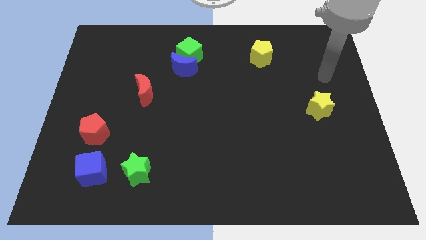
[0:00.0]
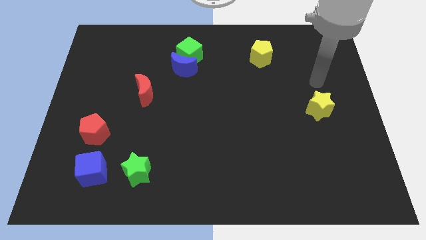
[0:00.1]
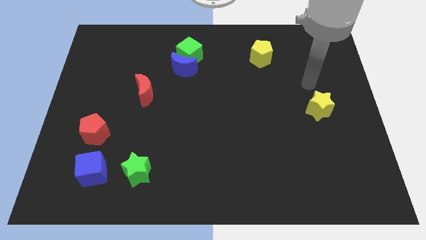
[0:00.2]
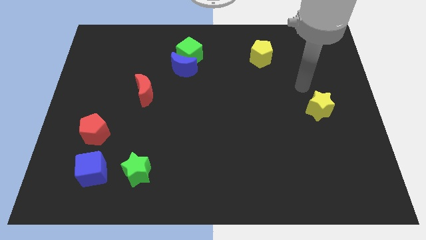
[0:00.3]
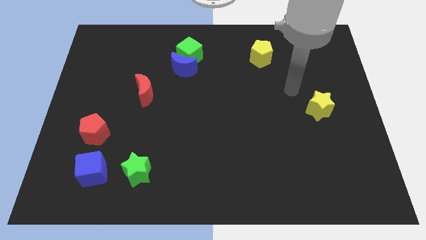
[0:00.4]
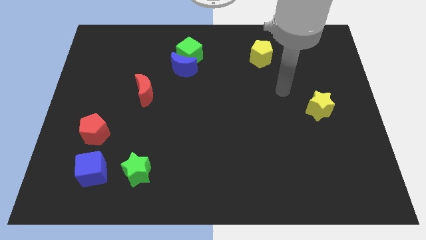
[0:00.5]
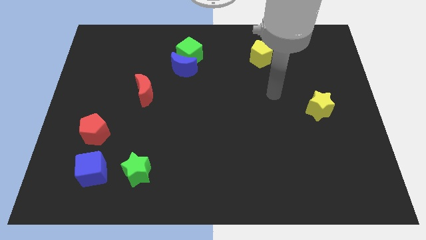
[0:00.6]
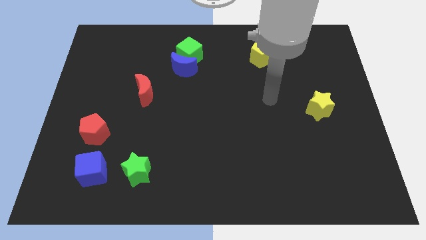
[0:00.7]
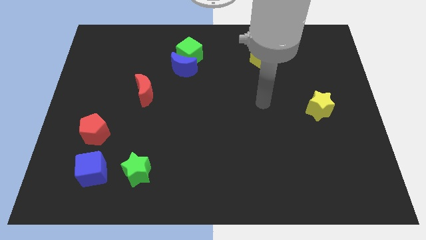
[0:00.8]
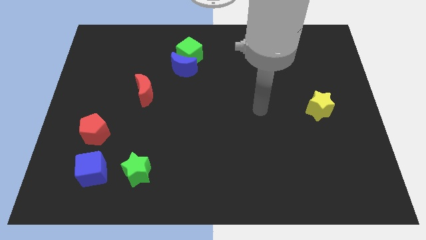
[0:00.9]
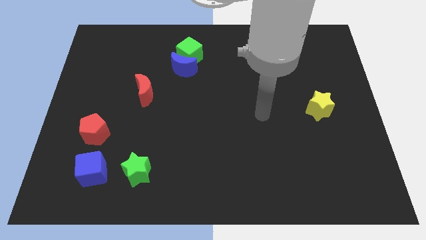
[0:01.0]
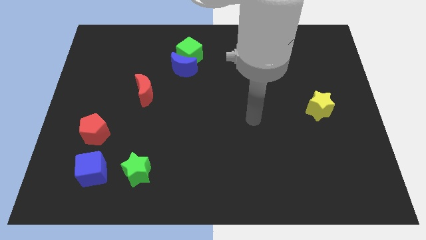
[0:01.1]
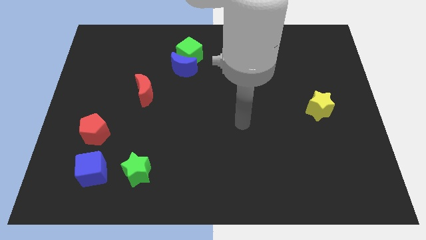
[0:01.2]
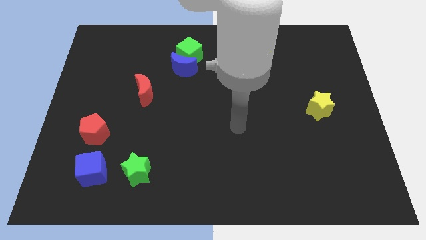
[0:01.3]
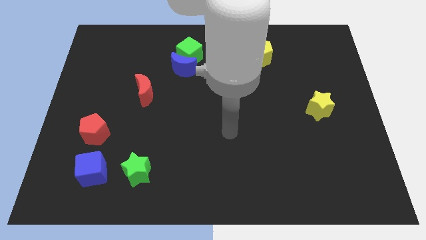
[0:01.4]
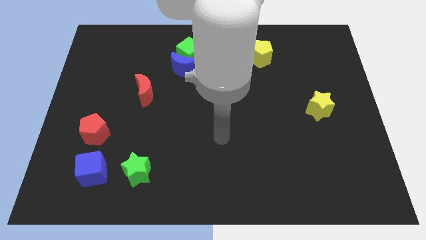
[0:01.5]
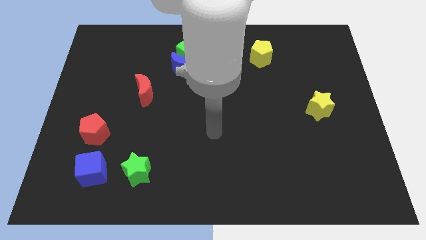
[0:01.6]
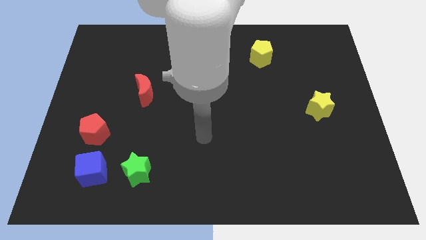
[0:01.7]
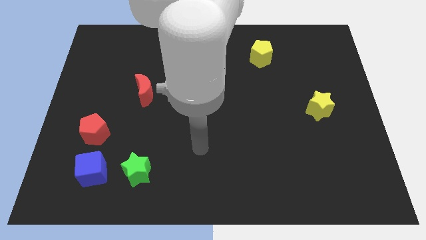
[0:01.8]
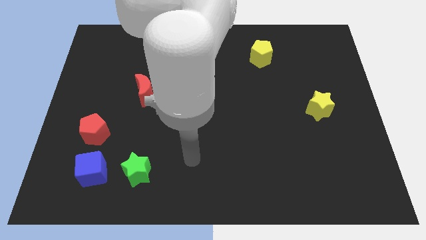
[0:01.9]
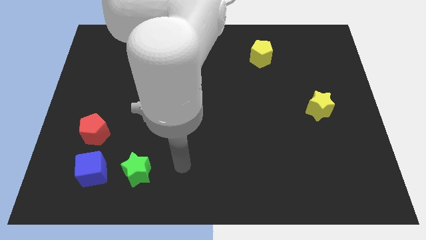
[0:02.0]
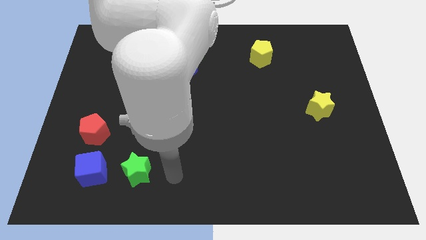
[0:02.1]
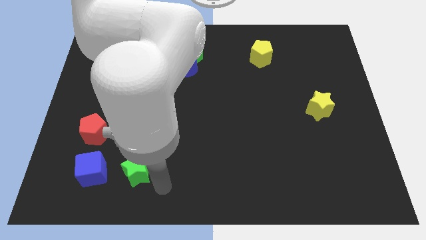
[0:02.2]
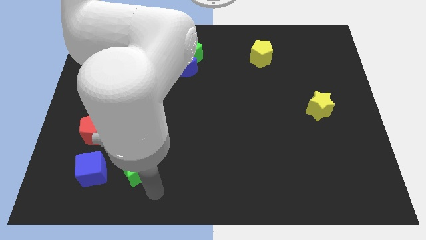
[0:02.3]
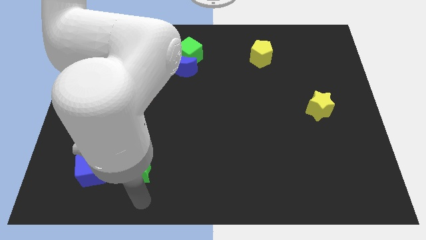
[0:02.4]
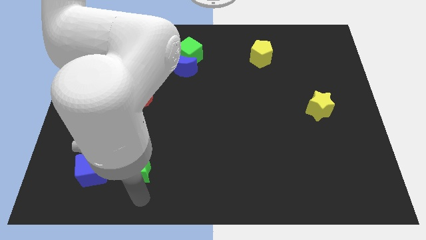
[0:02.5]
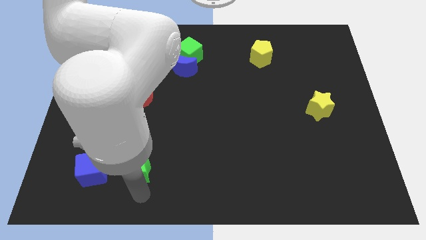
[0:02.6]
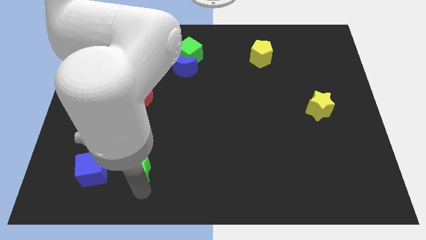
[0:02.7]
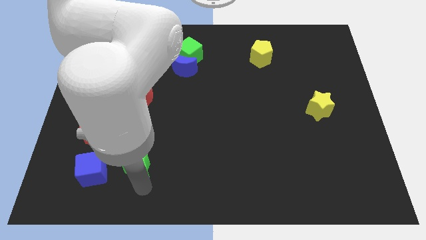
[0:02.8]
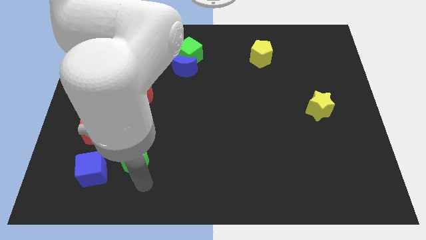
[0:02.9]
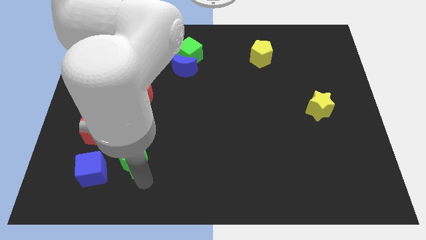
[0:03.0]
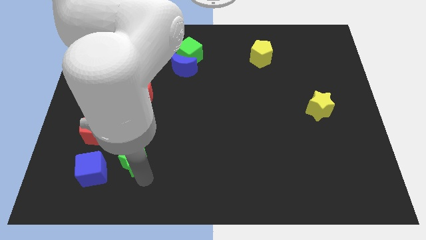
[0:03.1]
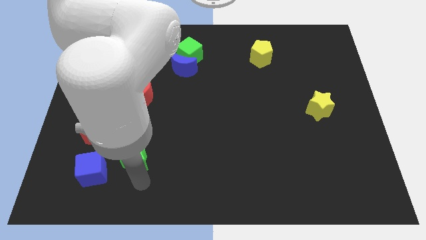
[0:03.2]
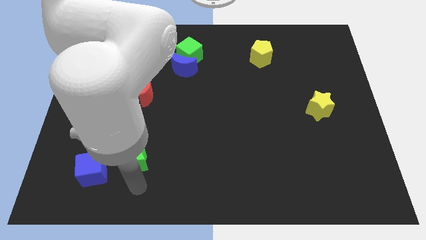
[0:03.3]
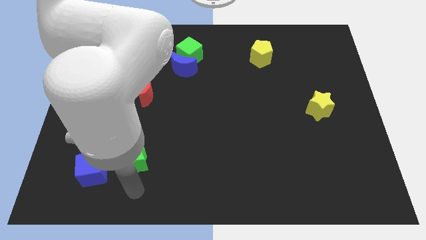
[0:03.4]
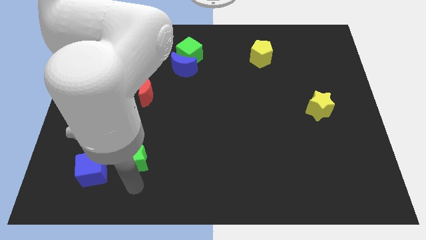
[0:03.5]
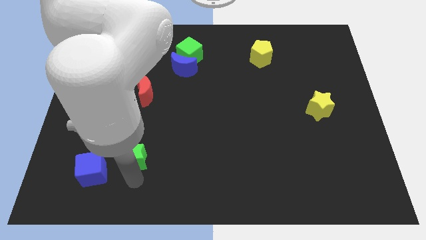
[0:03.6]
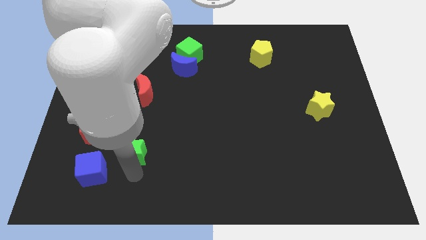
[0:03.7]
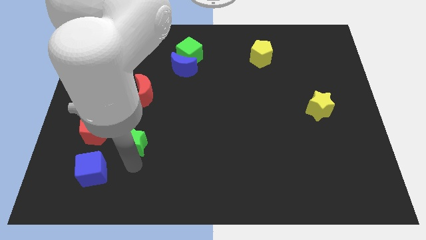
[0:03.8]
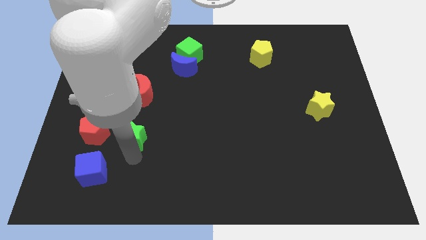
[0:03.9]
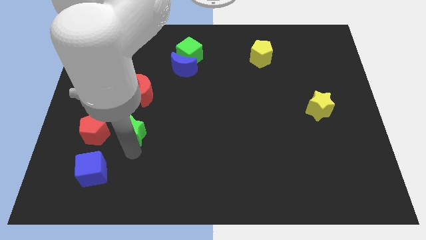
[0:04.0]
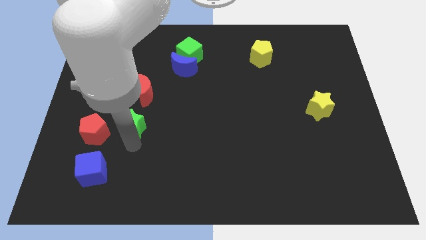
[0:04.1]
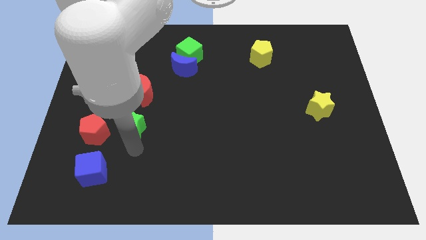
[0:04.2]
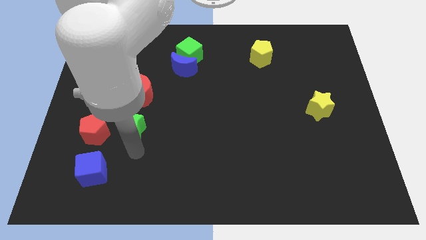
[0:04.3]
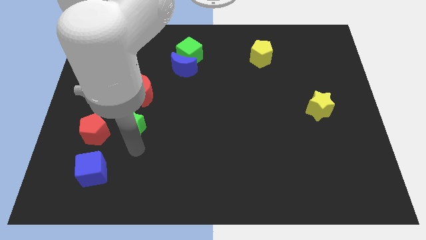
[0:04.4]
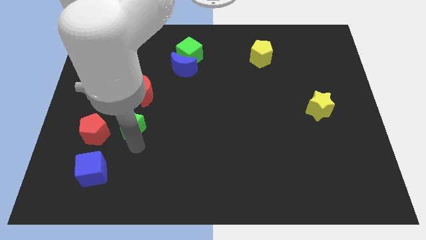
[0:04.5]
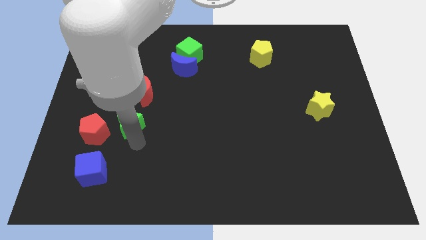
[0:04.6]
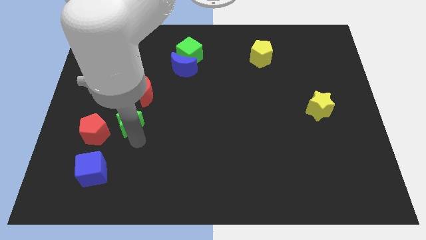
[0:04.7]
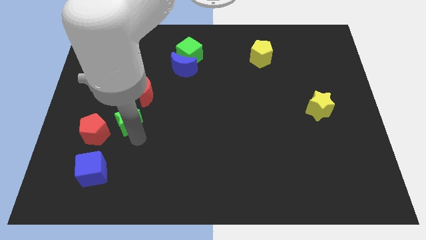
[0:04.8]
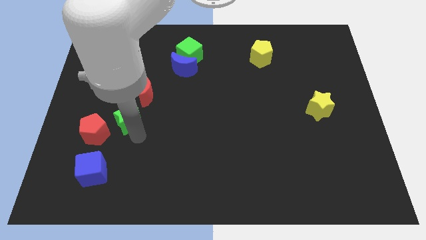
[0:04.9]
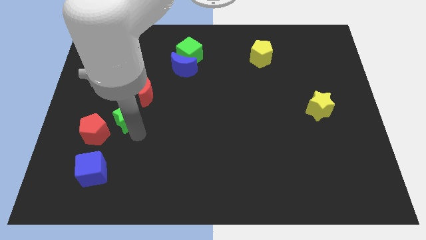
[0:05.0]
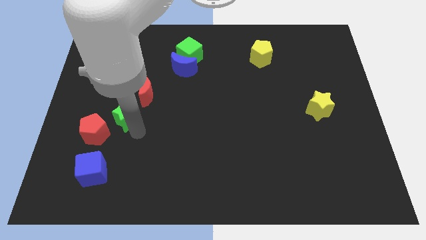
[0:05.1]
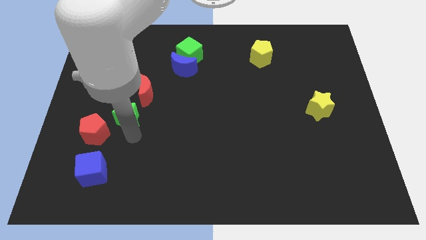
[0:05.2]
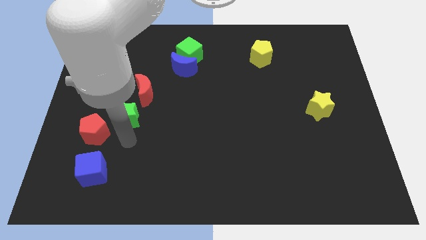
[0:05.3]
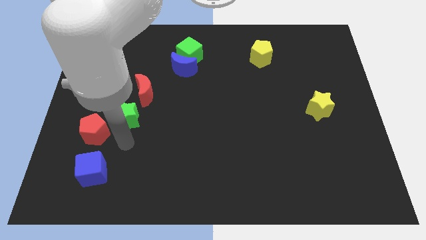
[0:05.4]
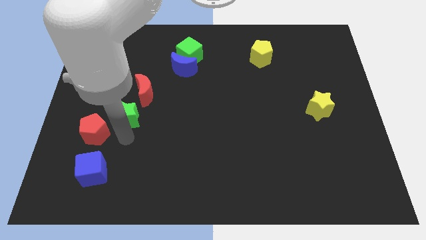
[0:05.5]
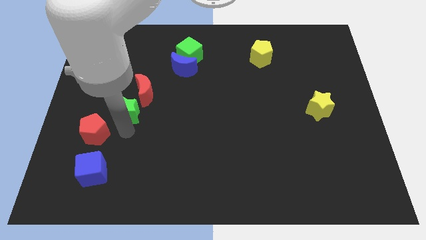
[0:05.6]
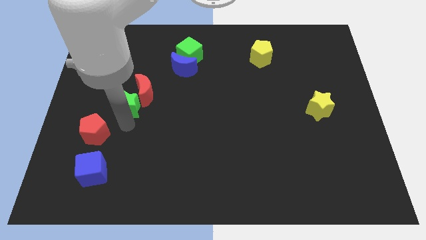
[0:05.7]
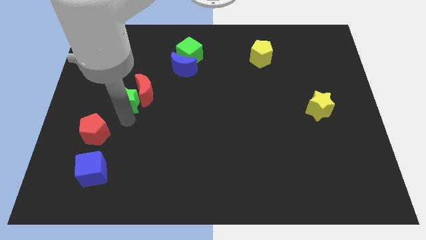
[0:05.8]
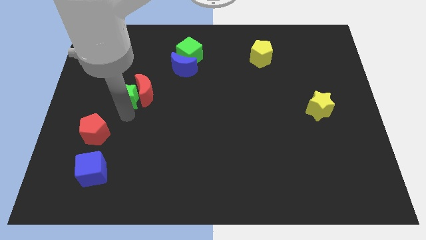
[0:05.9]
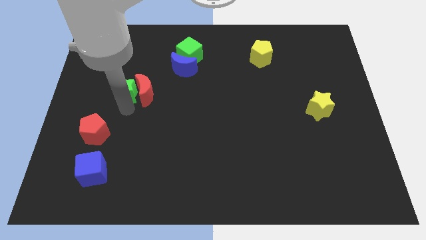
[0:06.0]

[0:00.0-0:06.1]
push the green star to the top left side of the red moon

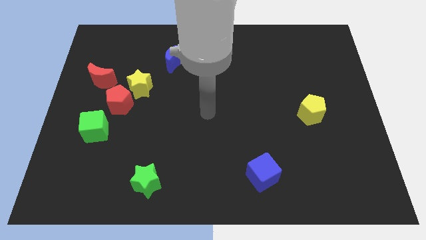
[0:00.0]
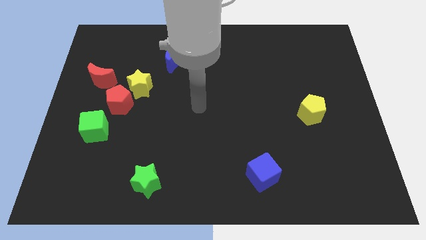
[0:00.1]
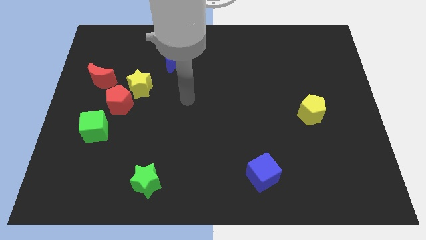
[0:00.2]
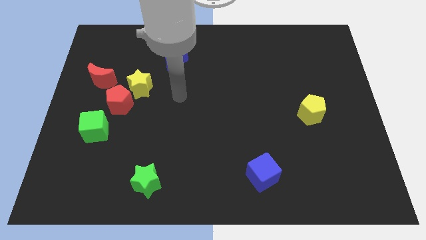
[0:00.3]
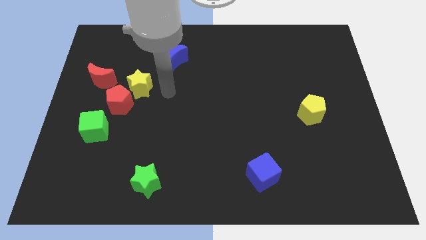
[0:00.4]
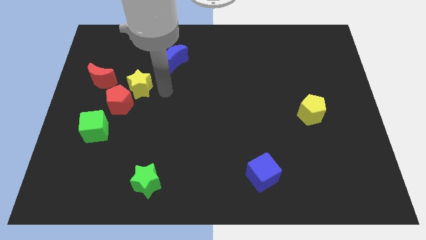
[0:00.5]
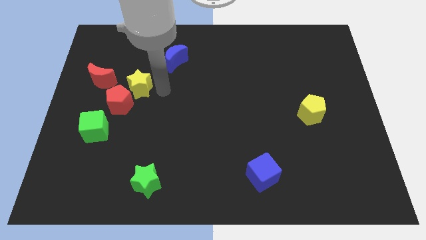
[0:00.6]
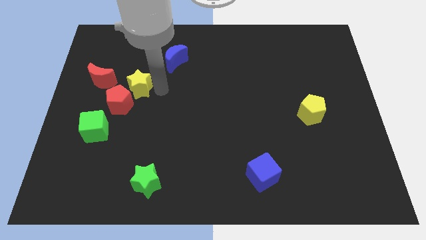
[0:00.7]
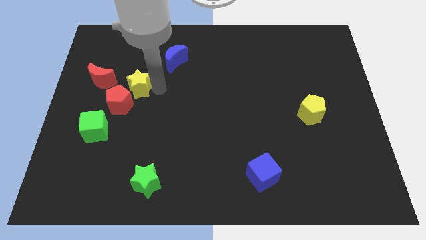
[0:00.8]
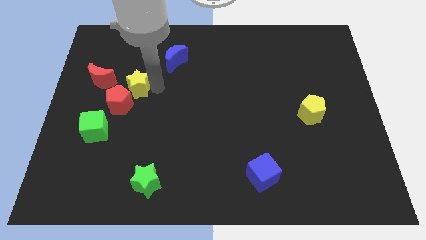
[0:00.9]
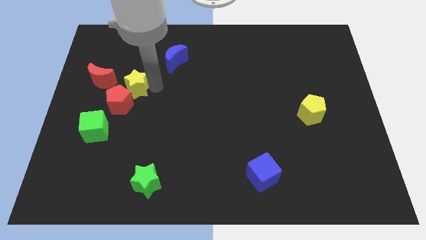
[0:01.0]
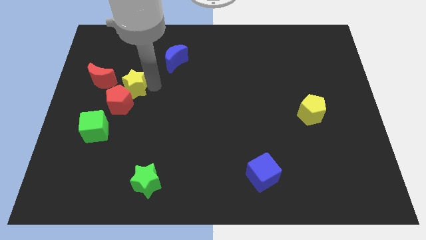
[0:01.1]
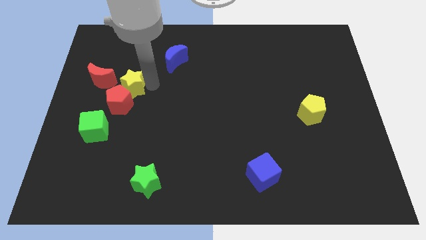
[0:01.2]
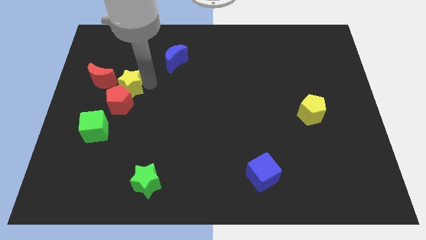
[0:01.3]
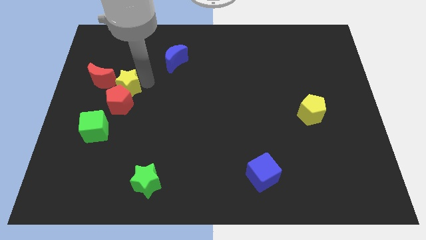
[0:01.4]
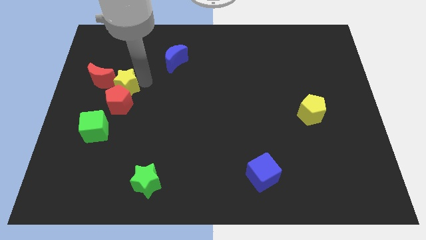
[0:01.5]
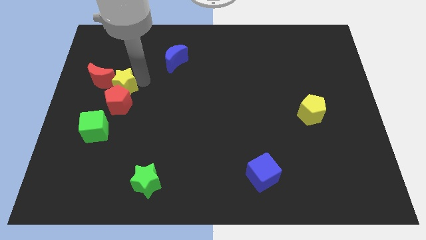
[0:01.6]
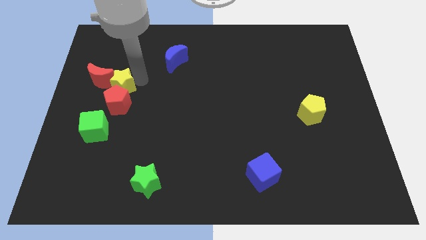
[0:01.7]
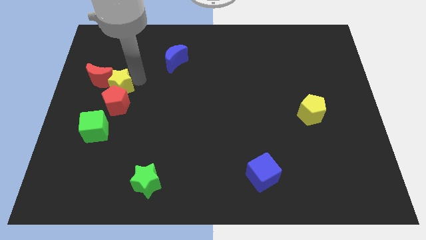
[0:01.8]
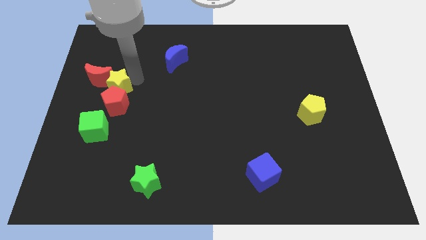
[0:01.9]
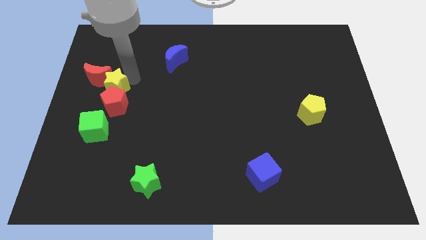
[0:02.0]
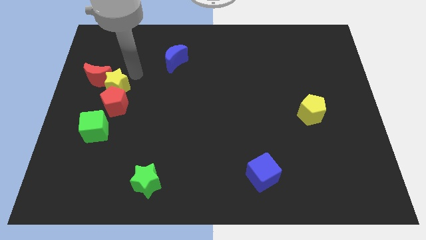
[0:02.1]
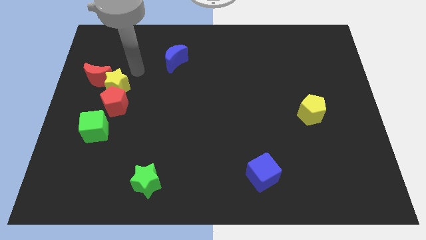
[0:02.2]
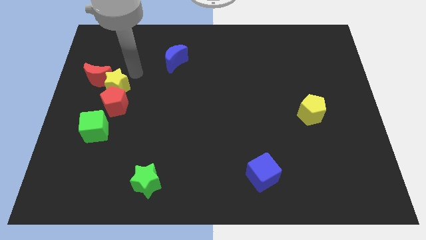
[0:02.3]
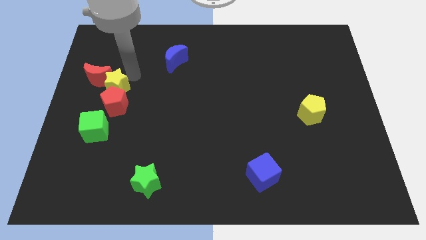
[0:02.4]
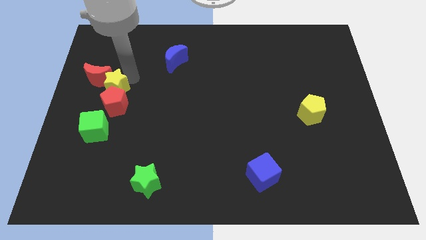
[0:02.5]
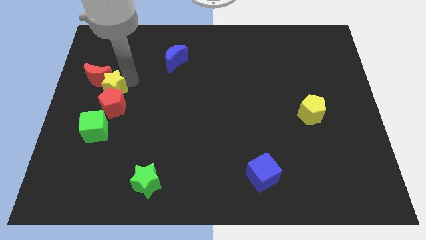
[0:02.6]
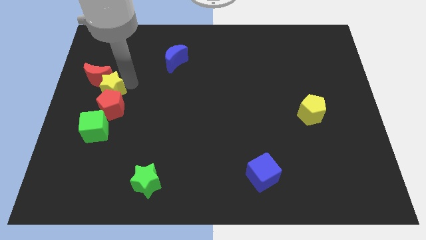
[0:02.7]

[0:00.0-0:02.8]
put the yellow star to the bottom of the red moon
